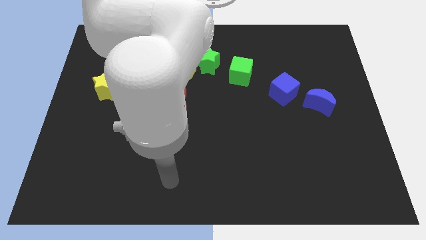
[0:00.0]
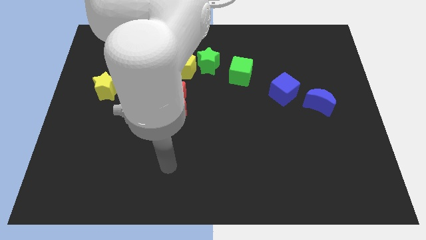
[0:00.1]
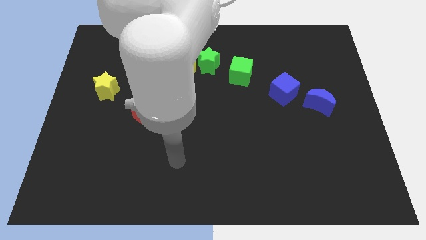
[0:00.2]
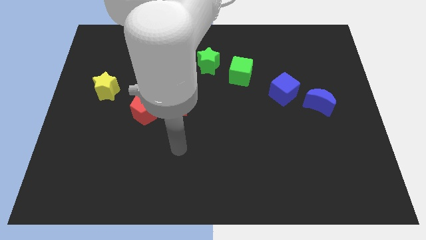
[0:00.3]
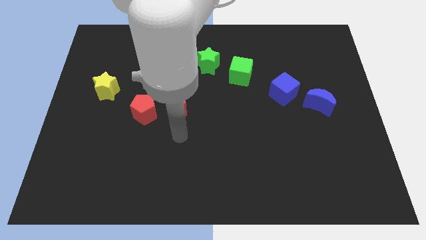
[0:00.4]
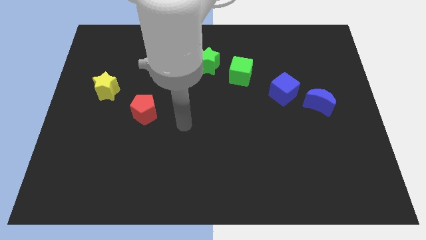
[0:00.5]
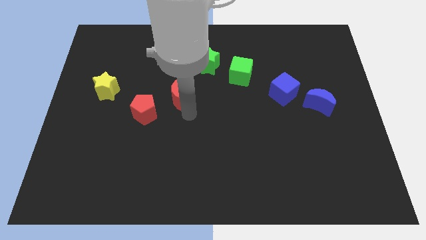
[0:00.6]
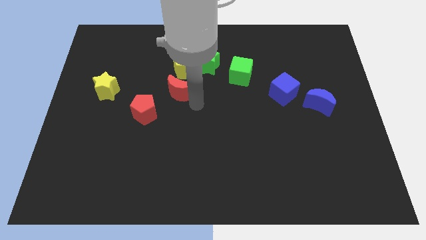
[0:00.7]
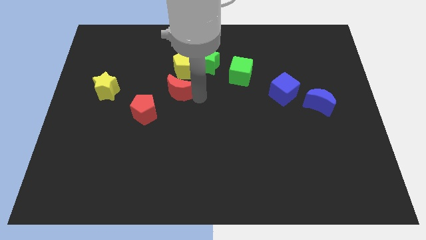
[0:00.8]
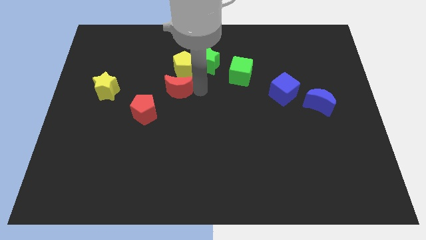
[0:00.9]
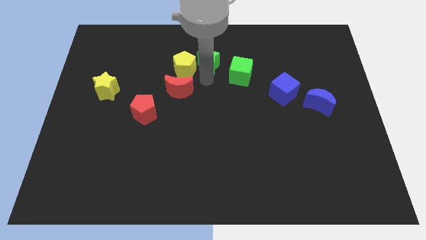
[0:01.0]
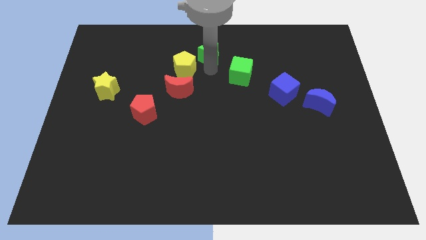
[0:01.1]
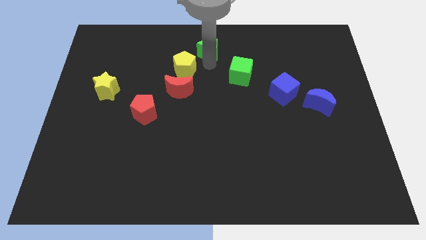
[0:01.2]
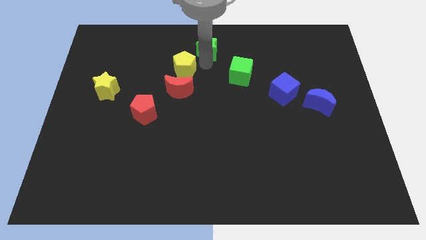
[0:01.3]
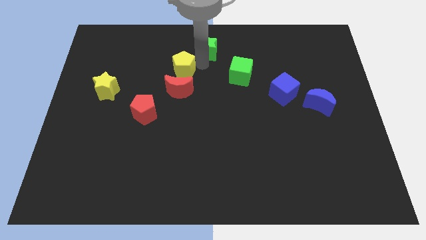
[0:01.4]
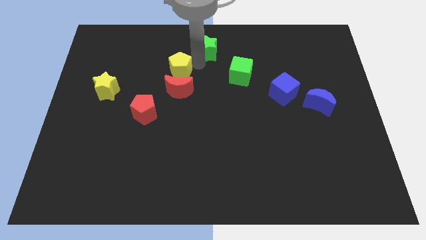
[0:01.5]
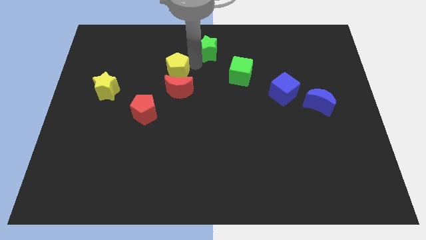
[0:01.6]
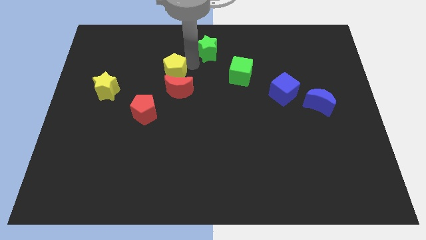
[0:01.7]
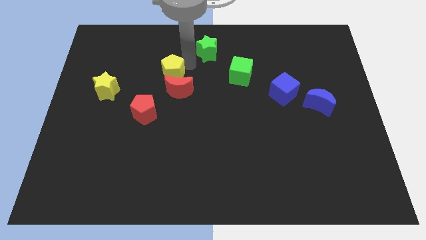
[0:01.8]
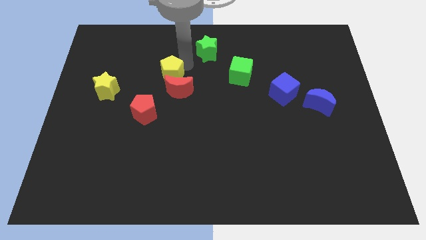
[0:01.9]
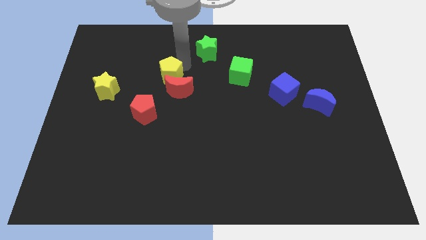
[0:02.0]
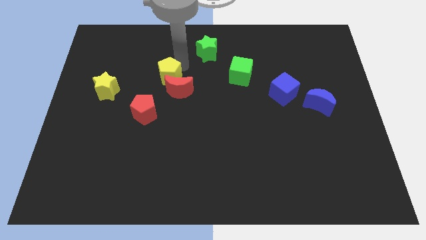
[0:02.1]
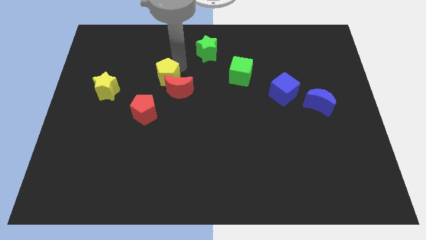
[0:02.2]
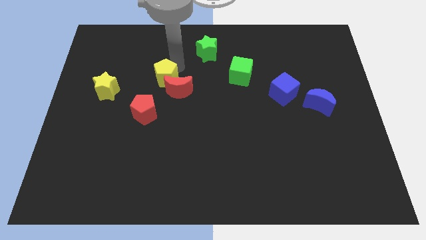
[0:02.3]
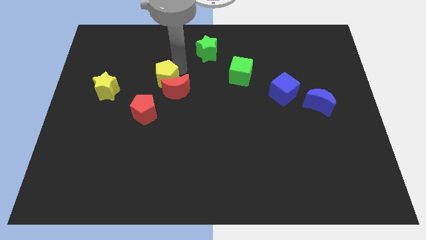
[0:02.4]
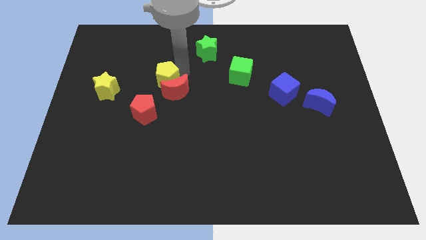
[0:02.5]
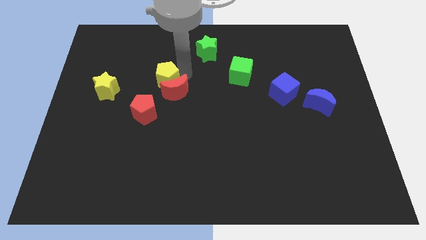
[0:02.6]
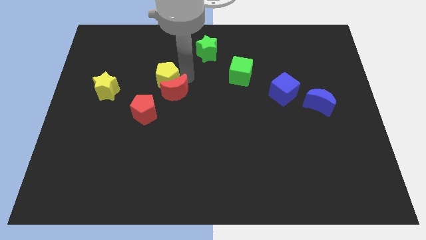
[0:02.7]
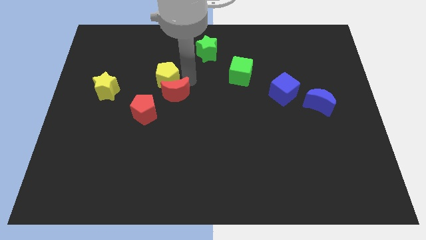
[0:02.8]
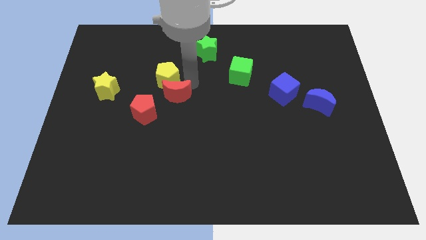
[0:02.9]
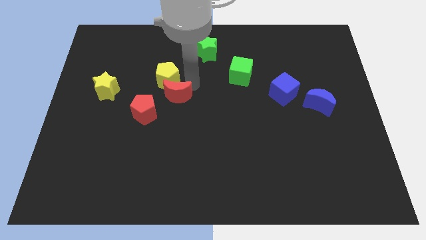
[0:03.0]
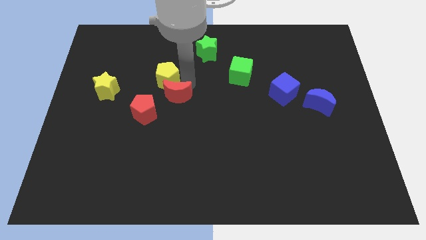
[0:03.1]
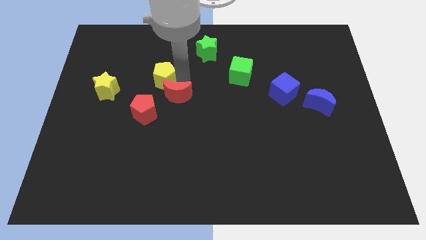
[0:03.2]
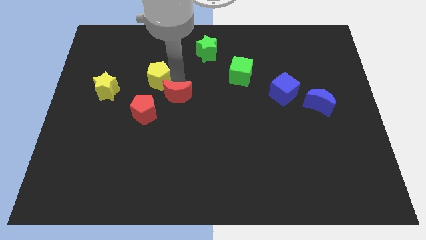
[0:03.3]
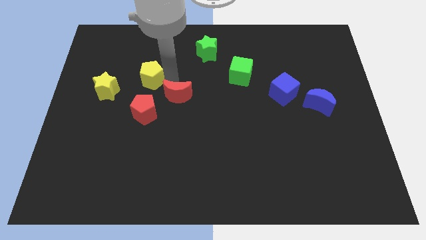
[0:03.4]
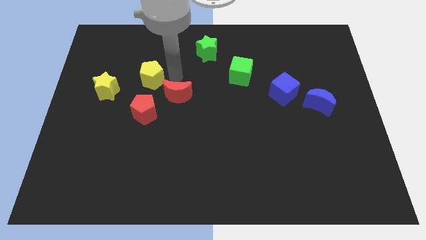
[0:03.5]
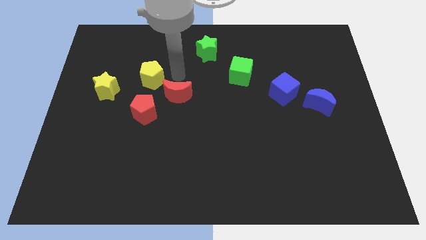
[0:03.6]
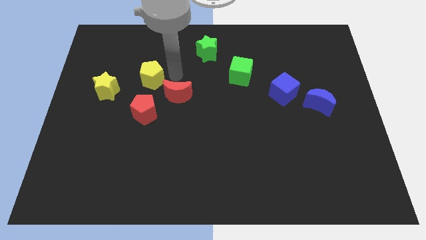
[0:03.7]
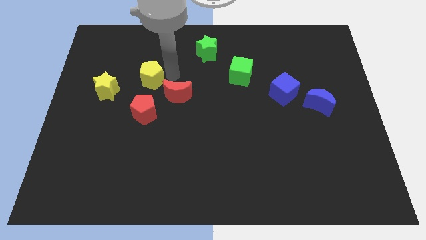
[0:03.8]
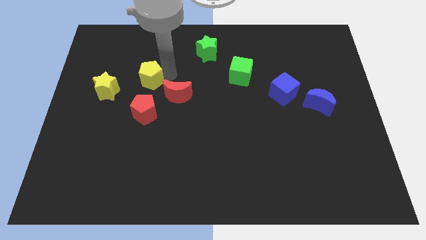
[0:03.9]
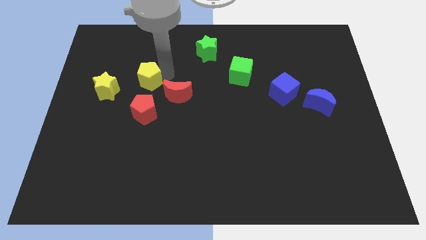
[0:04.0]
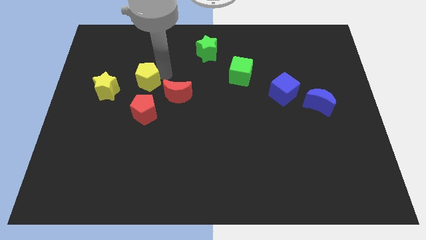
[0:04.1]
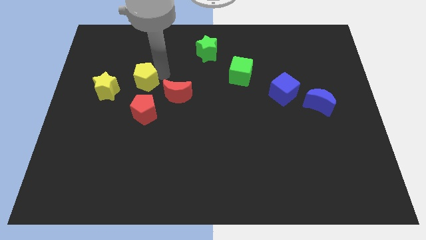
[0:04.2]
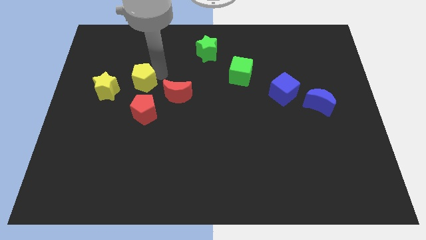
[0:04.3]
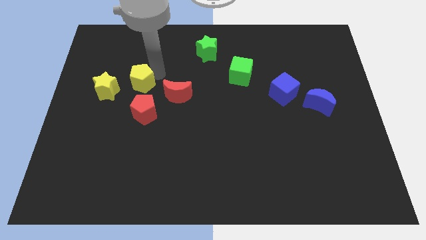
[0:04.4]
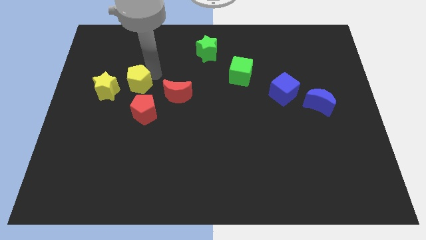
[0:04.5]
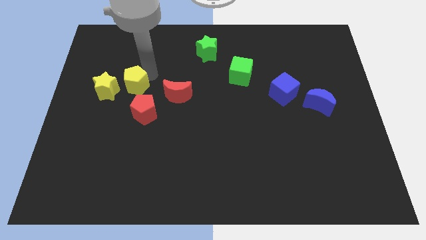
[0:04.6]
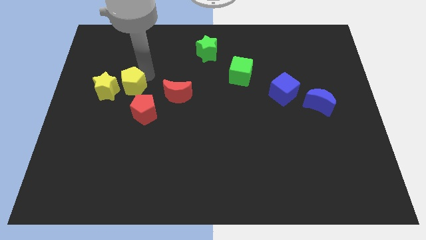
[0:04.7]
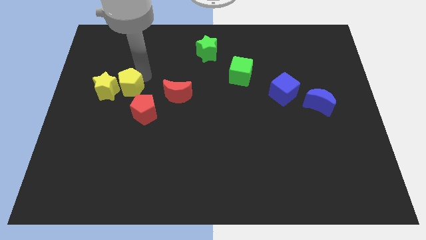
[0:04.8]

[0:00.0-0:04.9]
push the yellow pentagon towards the yellow star

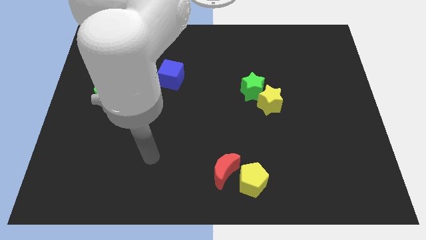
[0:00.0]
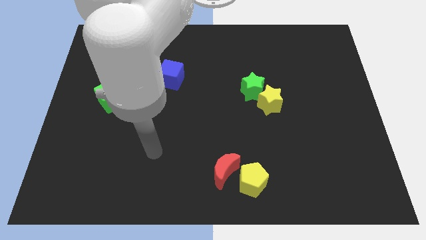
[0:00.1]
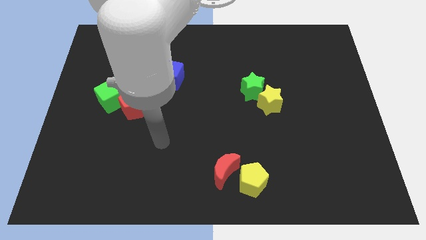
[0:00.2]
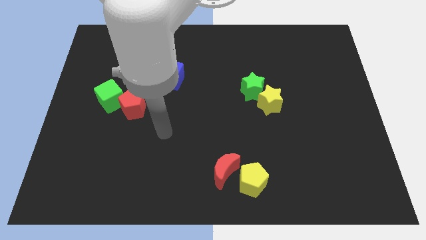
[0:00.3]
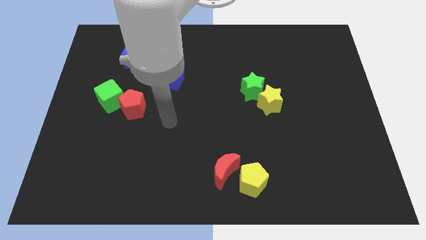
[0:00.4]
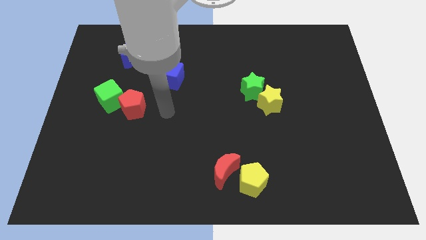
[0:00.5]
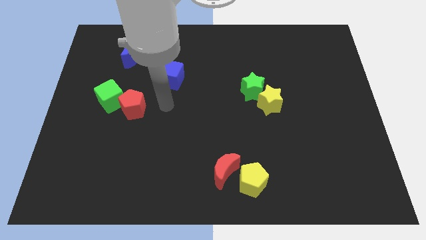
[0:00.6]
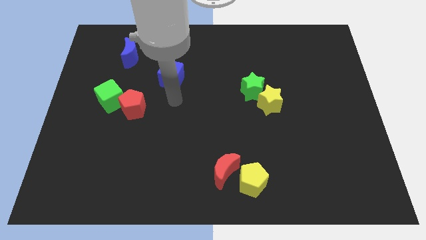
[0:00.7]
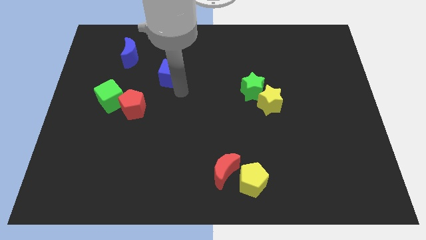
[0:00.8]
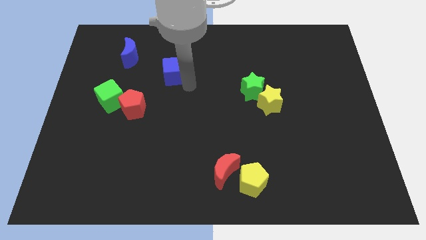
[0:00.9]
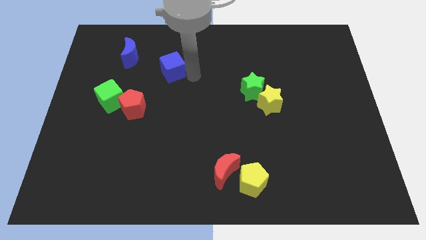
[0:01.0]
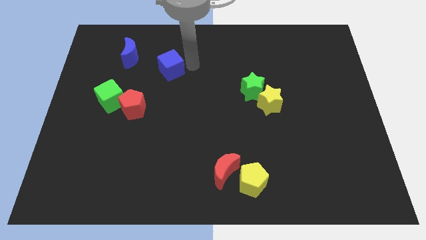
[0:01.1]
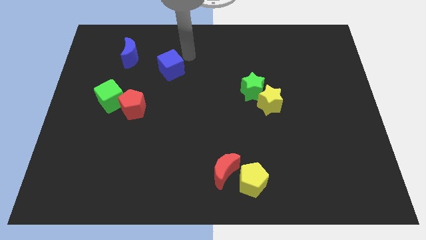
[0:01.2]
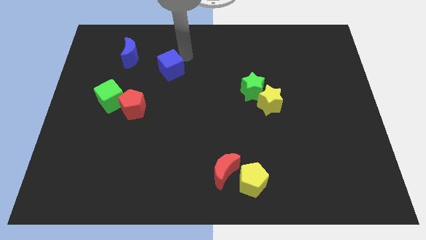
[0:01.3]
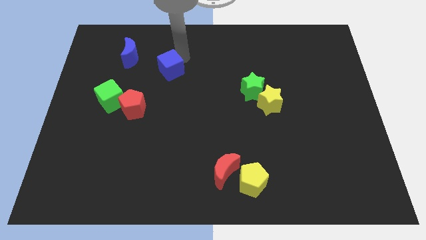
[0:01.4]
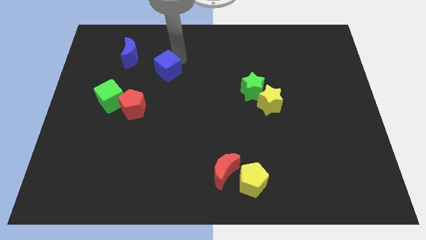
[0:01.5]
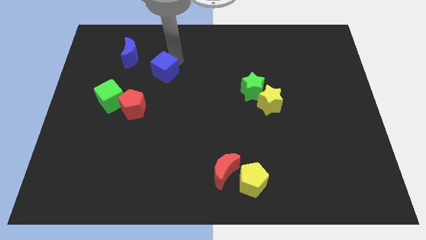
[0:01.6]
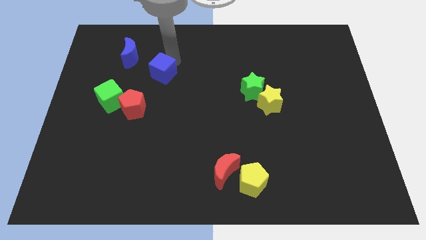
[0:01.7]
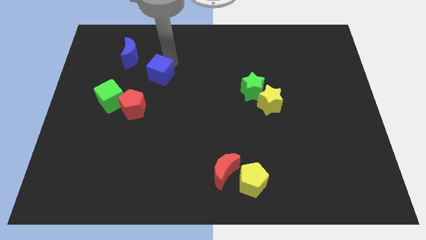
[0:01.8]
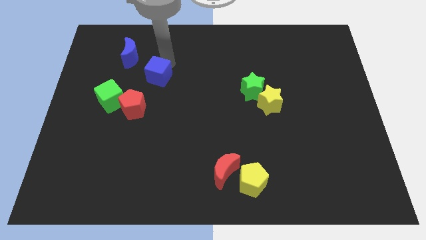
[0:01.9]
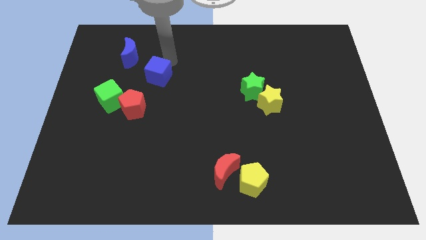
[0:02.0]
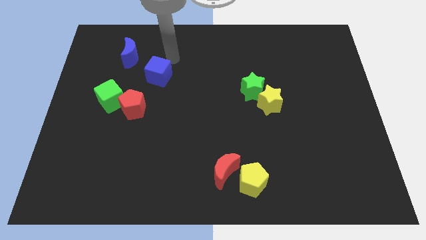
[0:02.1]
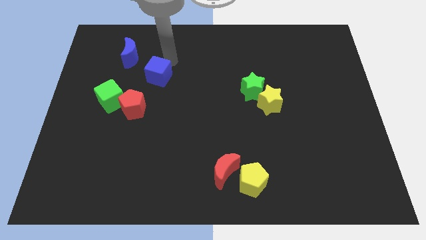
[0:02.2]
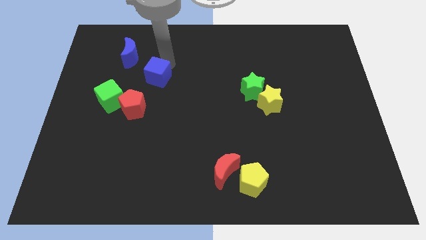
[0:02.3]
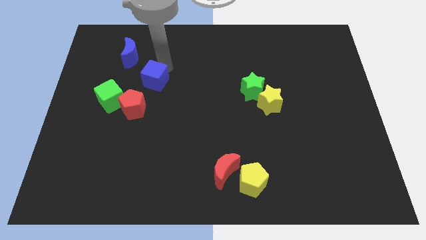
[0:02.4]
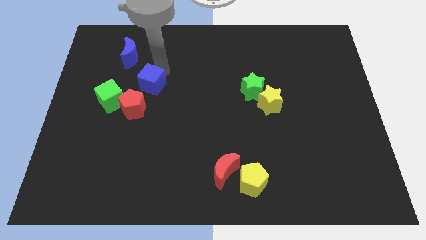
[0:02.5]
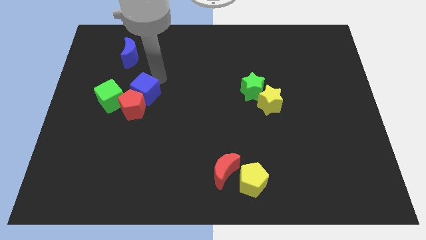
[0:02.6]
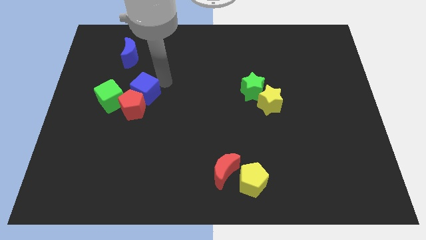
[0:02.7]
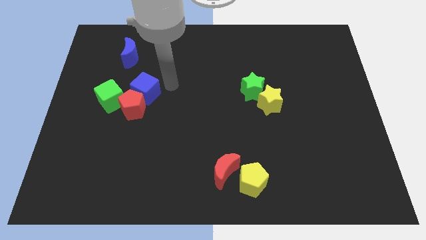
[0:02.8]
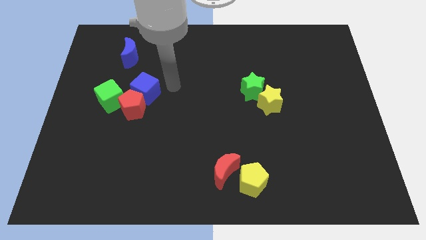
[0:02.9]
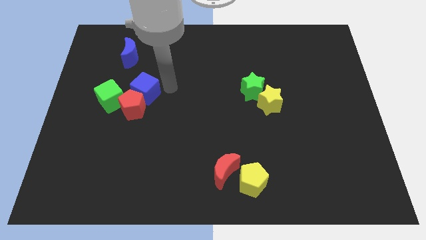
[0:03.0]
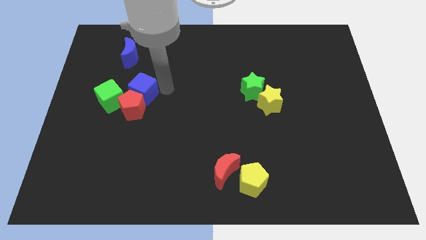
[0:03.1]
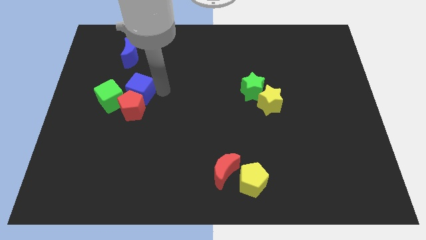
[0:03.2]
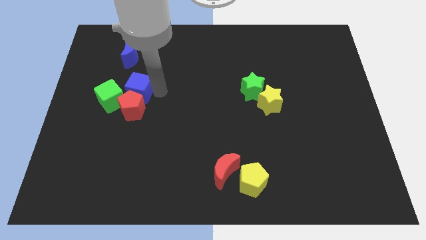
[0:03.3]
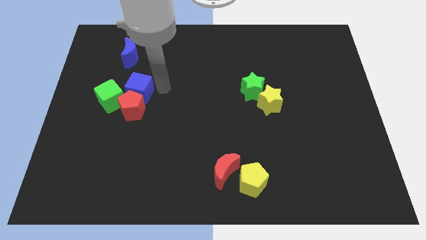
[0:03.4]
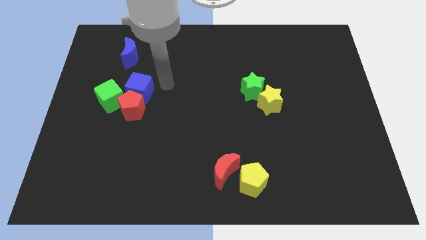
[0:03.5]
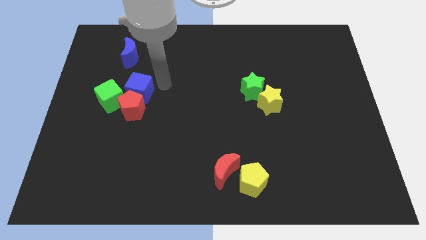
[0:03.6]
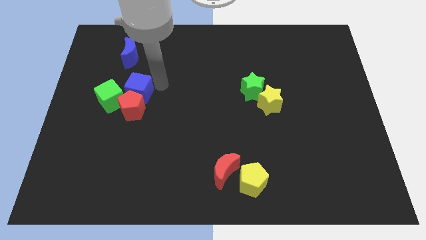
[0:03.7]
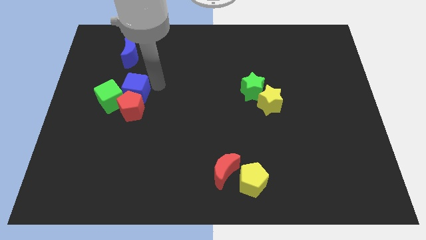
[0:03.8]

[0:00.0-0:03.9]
move the blue cube to the green cube
